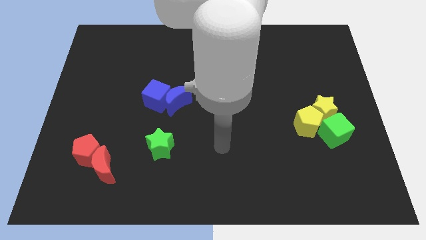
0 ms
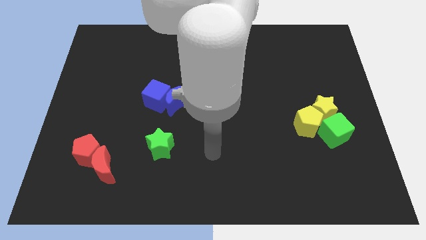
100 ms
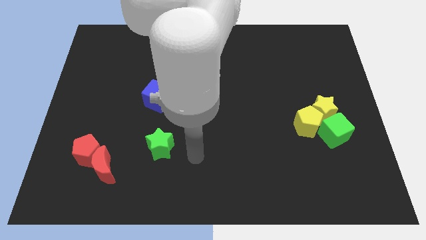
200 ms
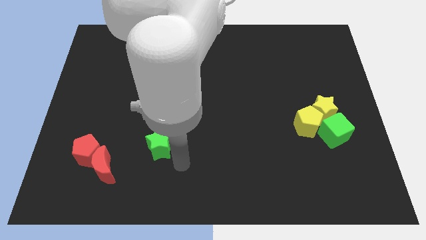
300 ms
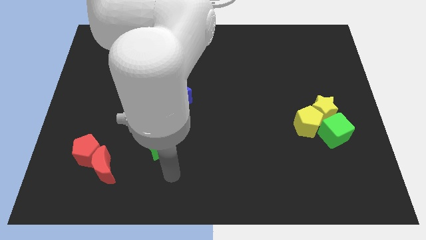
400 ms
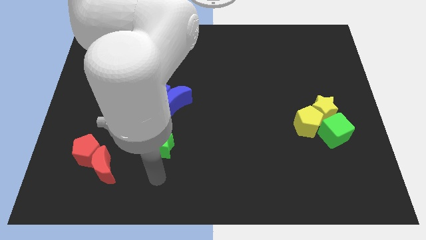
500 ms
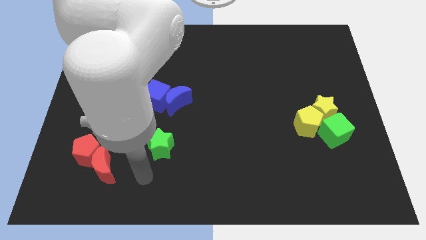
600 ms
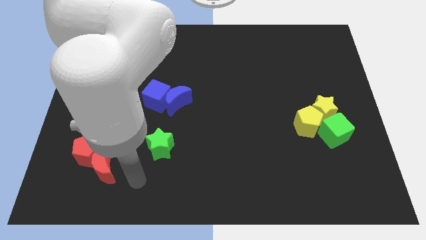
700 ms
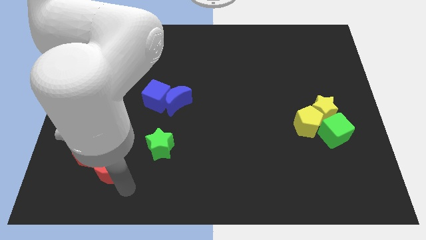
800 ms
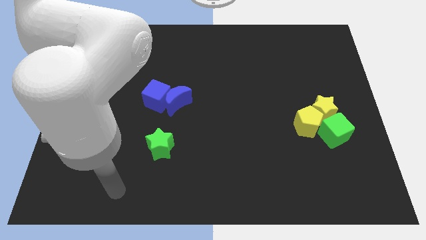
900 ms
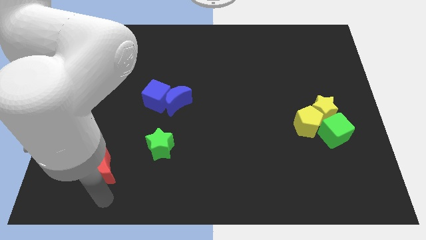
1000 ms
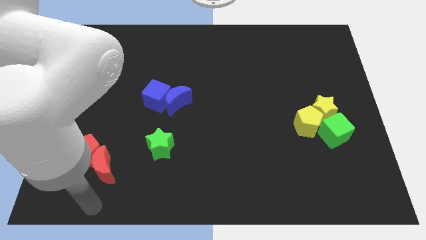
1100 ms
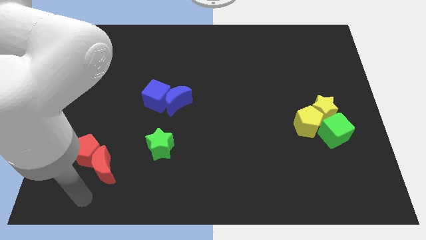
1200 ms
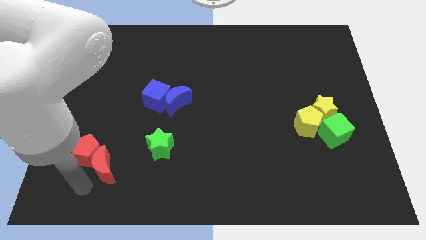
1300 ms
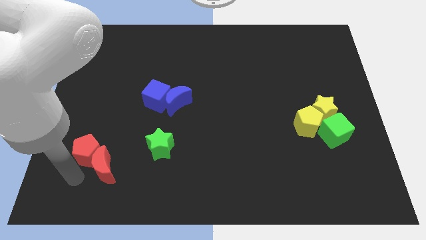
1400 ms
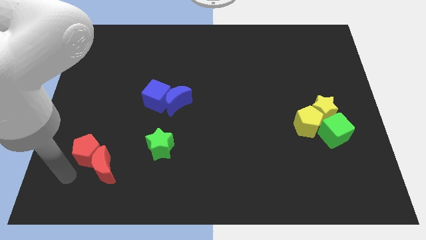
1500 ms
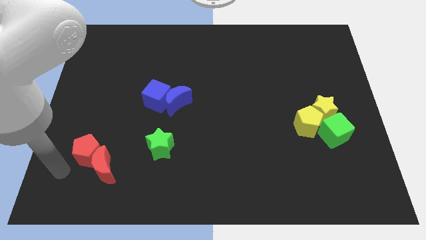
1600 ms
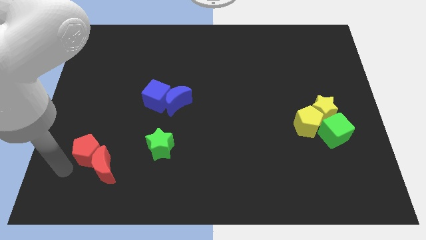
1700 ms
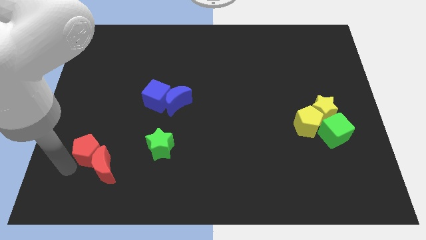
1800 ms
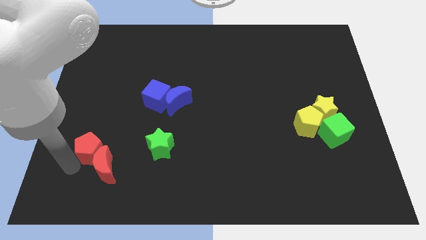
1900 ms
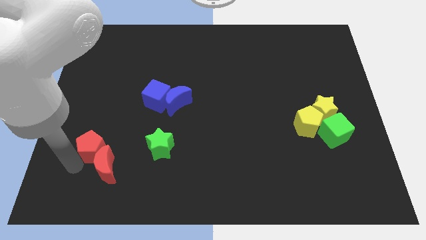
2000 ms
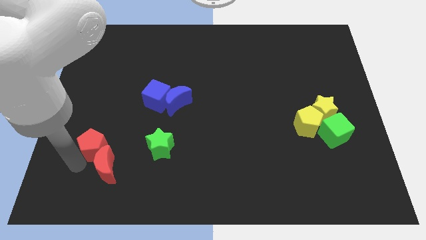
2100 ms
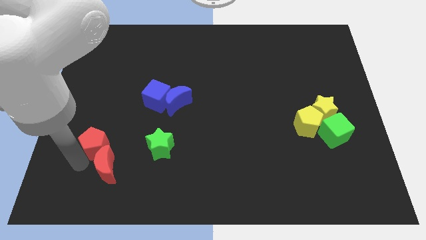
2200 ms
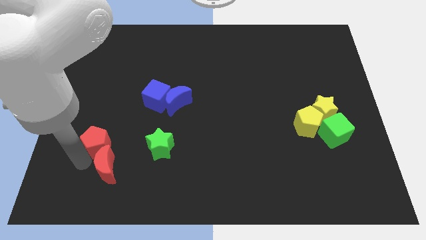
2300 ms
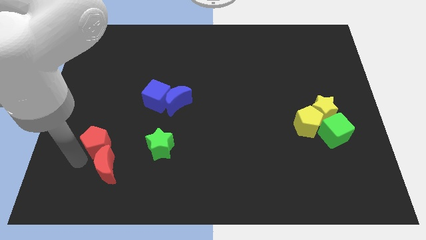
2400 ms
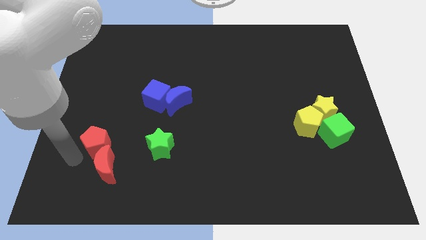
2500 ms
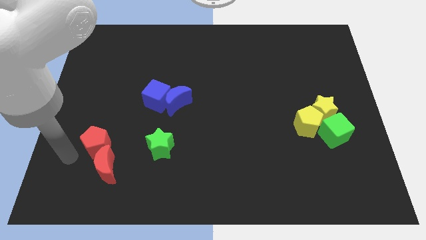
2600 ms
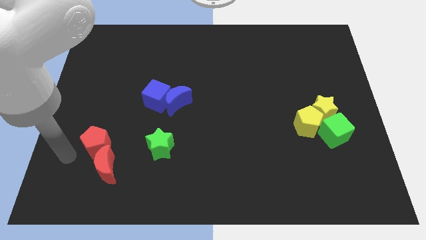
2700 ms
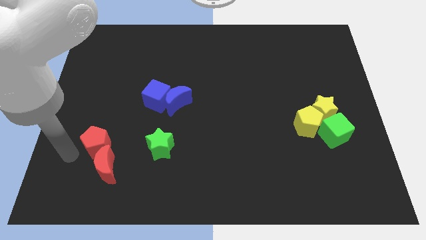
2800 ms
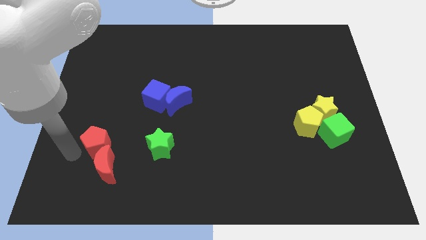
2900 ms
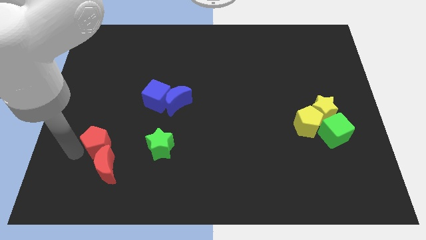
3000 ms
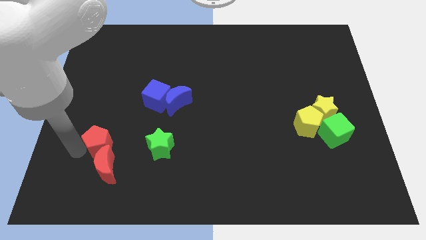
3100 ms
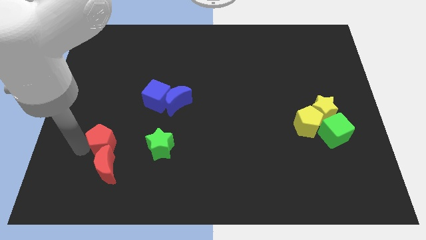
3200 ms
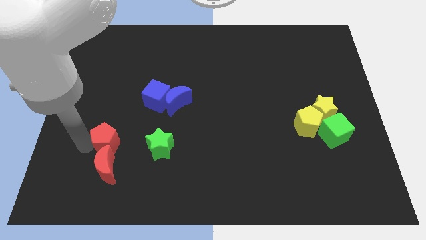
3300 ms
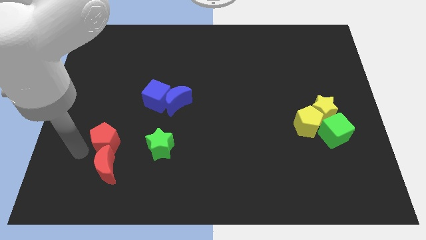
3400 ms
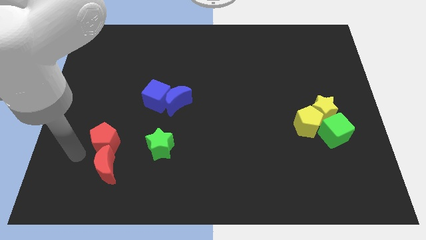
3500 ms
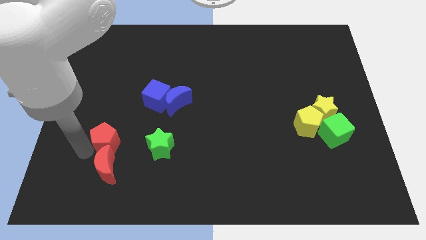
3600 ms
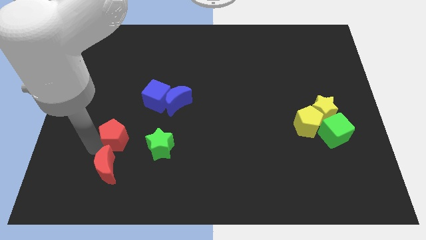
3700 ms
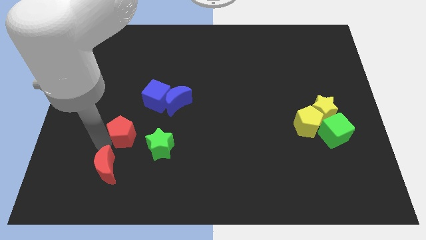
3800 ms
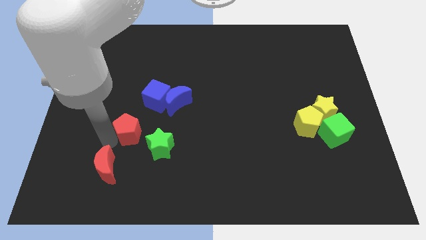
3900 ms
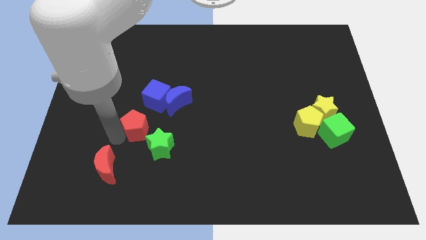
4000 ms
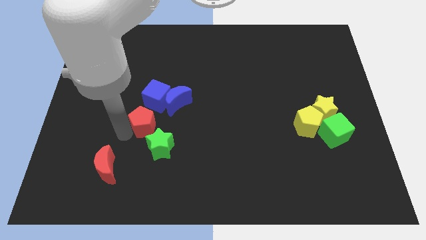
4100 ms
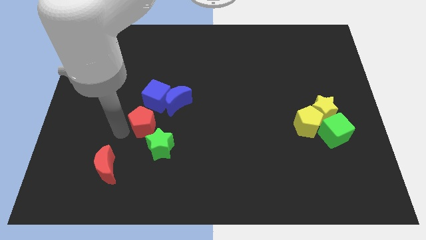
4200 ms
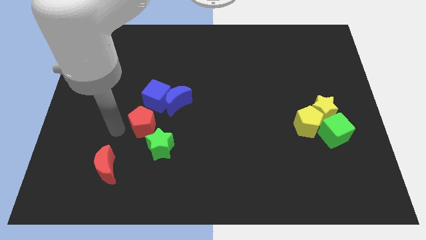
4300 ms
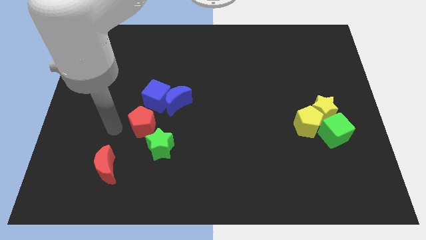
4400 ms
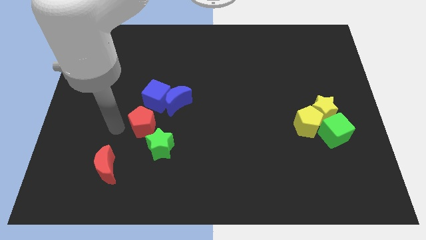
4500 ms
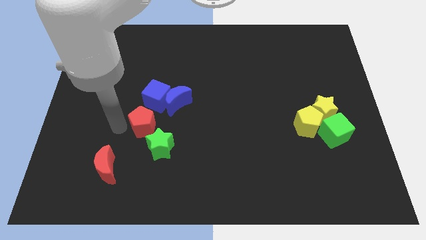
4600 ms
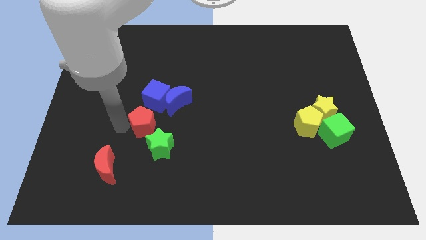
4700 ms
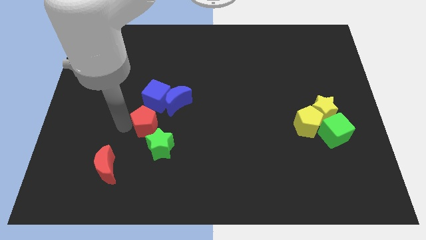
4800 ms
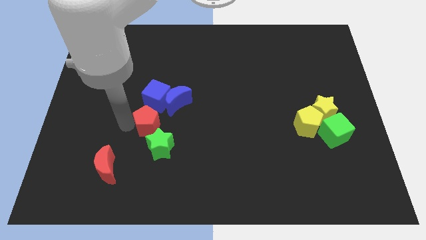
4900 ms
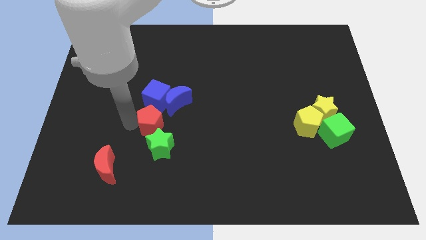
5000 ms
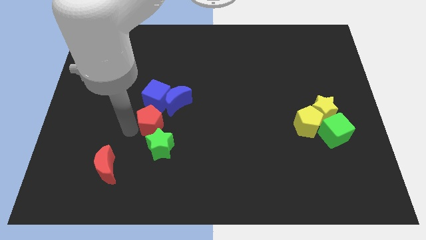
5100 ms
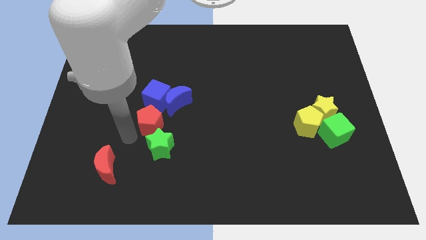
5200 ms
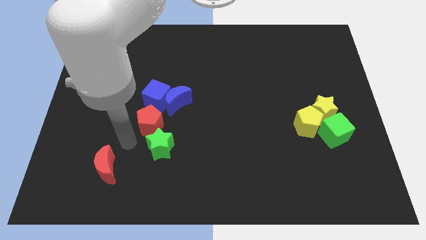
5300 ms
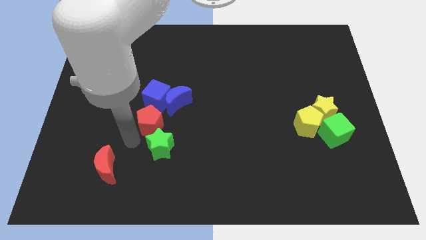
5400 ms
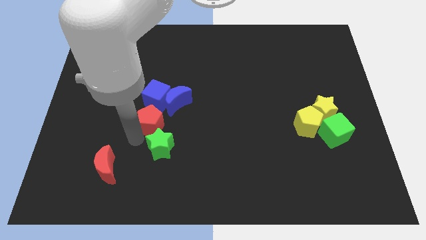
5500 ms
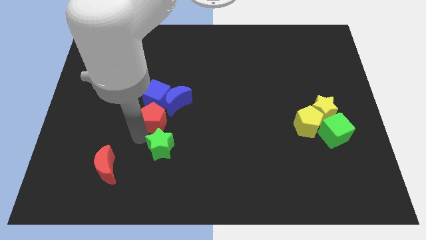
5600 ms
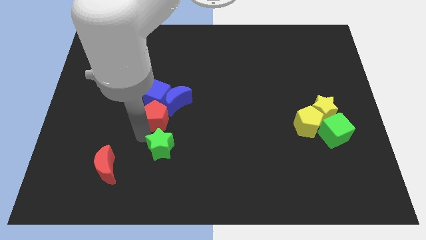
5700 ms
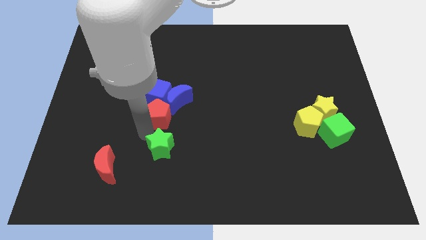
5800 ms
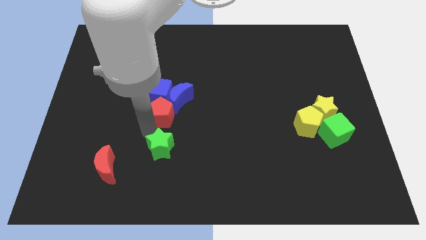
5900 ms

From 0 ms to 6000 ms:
push the red pentagon close to the blue moon

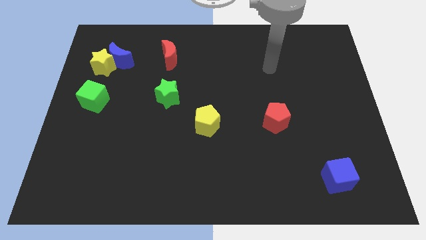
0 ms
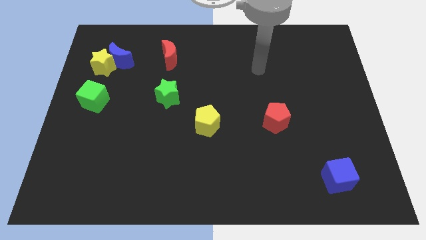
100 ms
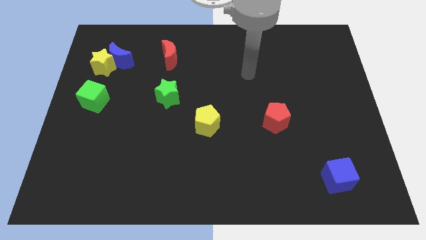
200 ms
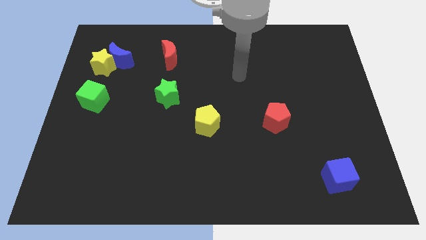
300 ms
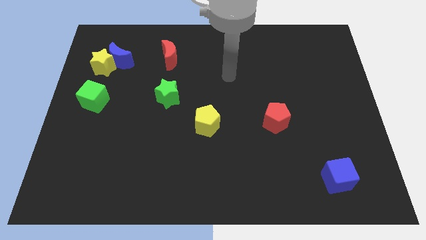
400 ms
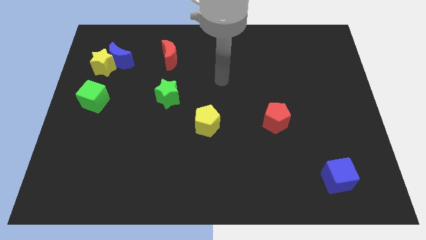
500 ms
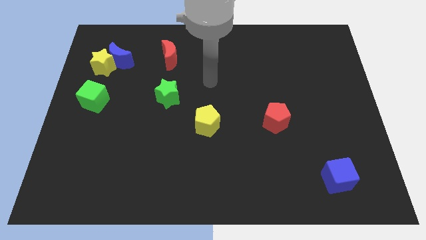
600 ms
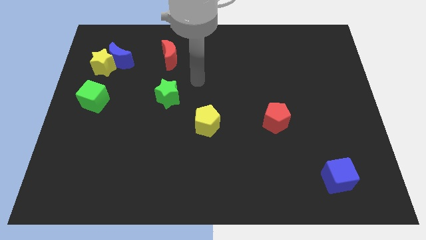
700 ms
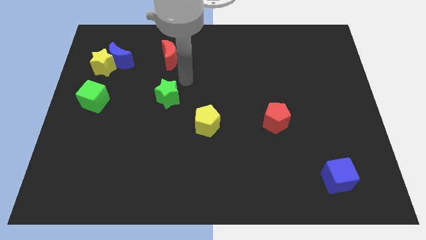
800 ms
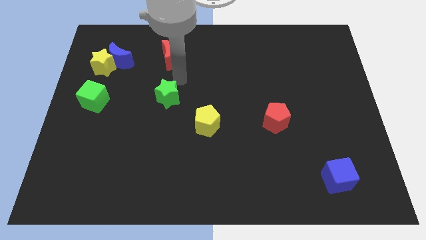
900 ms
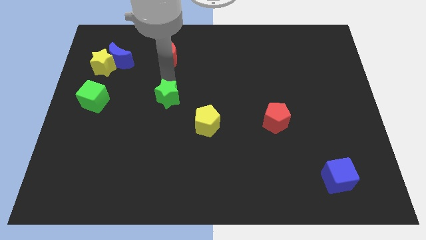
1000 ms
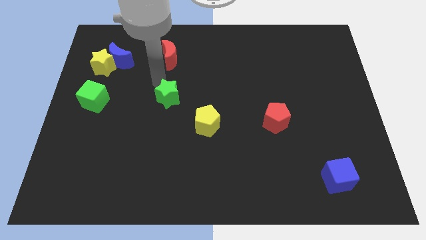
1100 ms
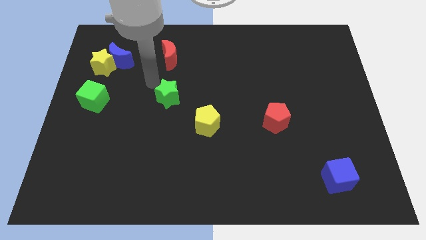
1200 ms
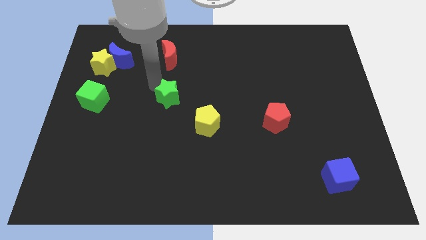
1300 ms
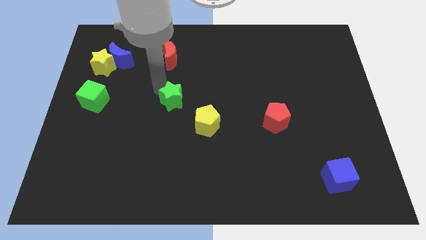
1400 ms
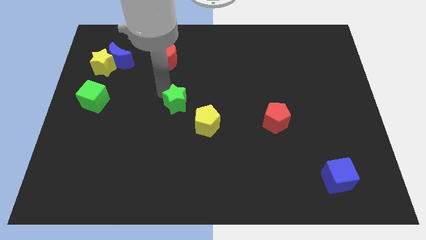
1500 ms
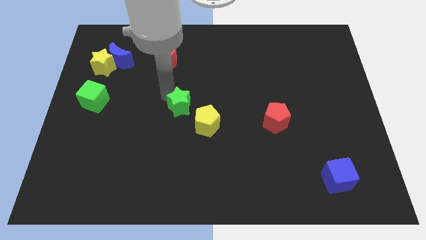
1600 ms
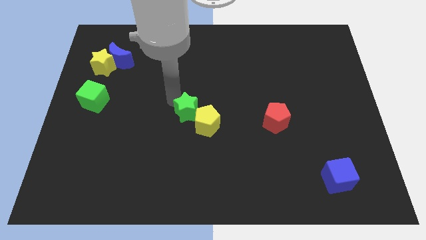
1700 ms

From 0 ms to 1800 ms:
put the green star next to the yellow pentagon
